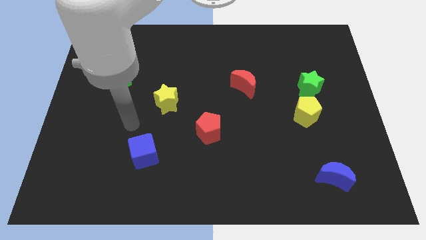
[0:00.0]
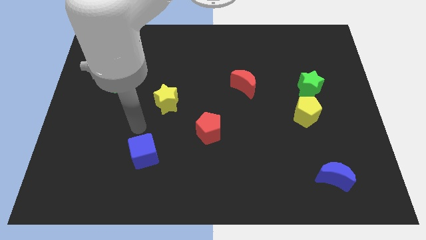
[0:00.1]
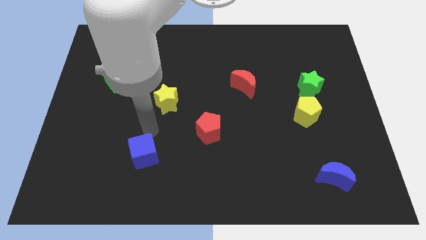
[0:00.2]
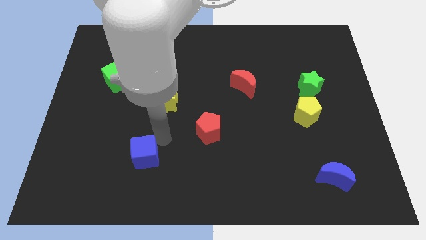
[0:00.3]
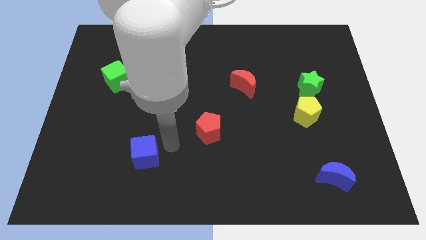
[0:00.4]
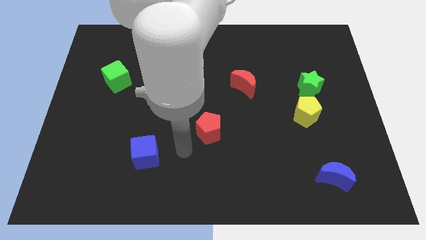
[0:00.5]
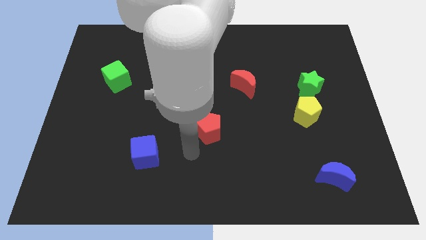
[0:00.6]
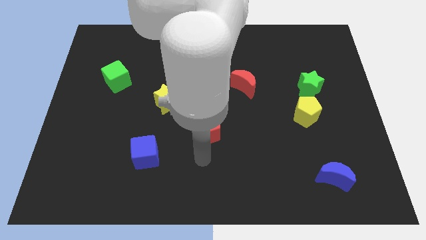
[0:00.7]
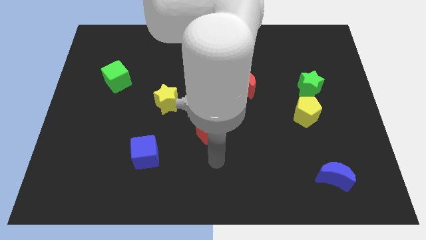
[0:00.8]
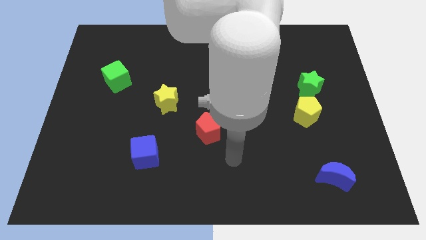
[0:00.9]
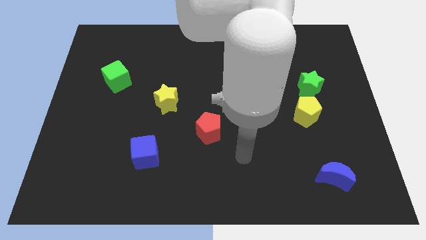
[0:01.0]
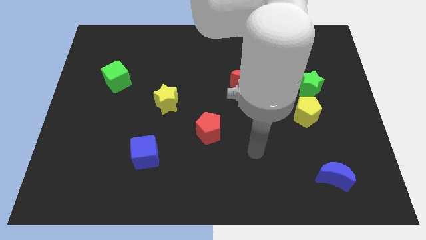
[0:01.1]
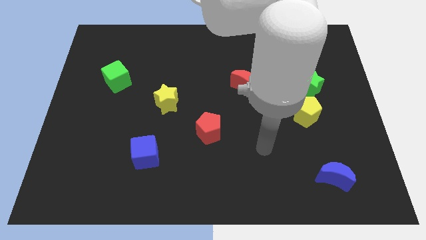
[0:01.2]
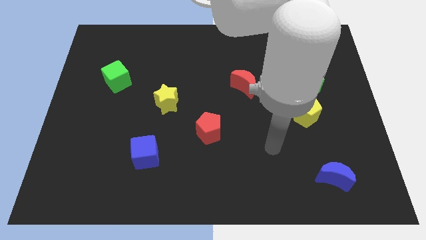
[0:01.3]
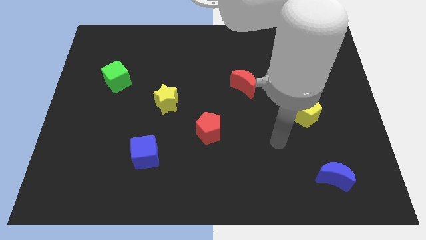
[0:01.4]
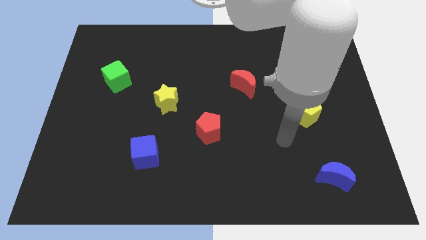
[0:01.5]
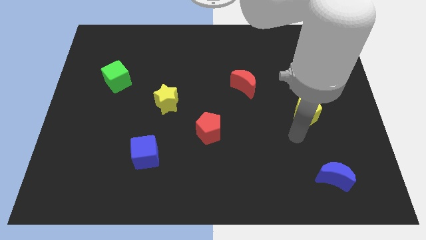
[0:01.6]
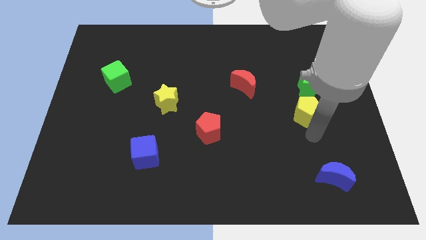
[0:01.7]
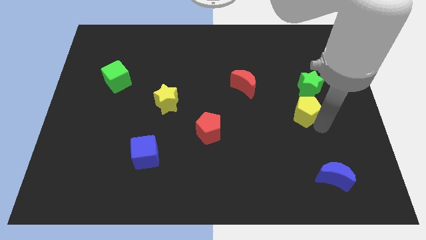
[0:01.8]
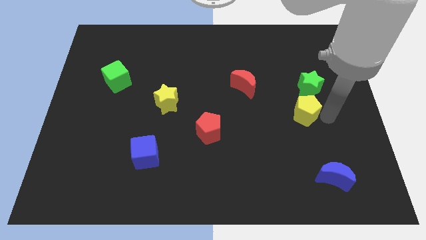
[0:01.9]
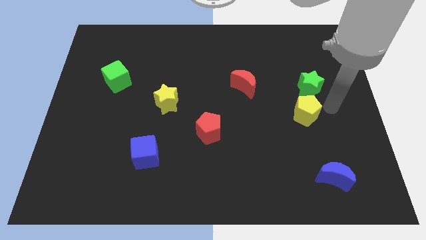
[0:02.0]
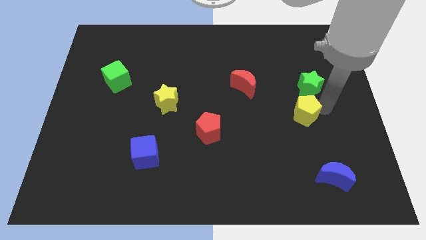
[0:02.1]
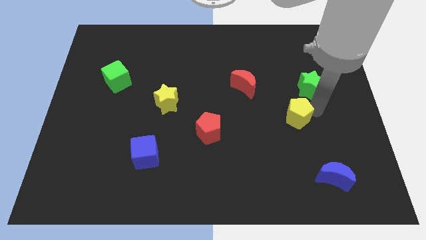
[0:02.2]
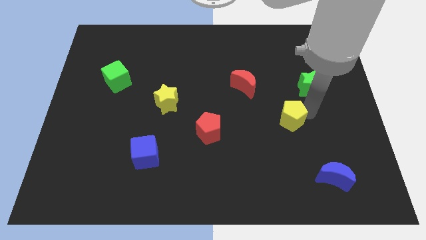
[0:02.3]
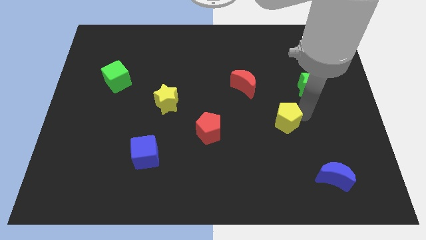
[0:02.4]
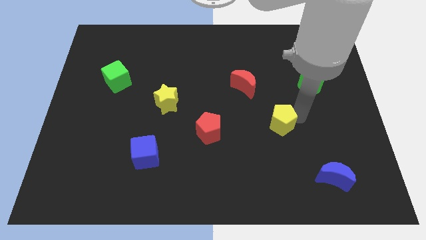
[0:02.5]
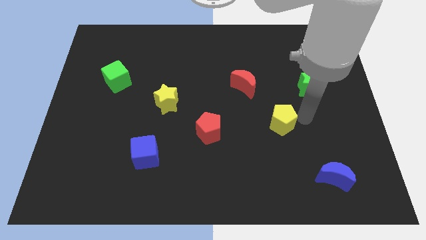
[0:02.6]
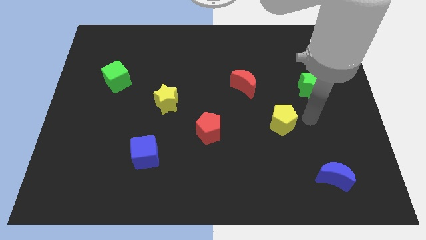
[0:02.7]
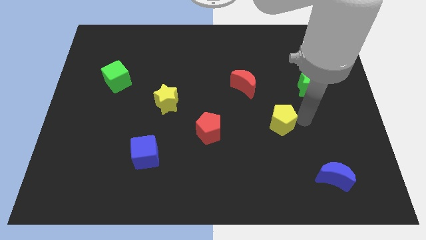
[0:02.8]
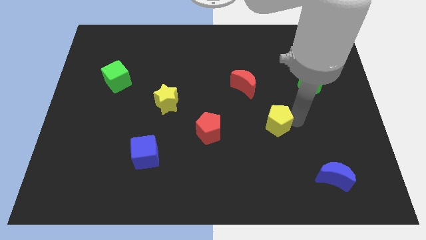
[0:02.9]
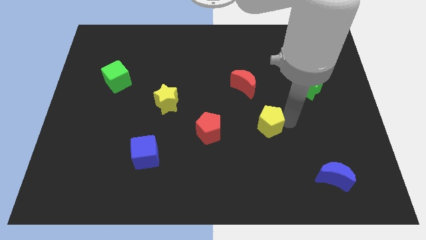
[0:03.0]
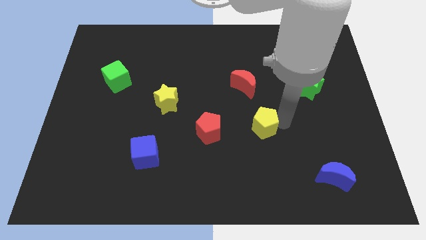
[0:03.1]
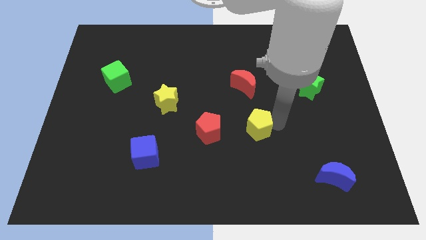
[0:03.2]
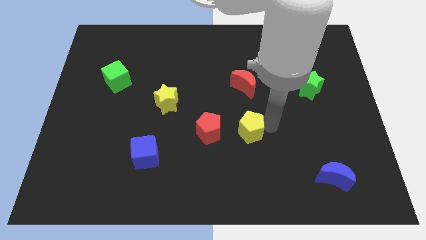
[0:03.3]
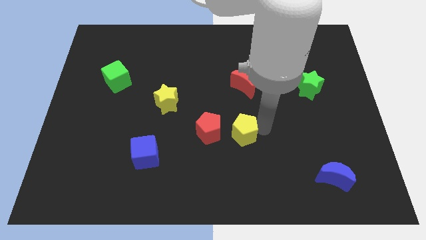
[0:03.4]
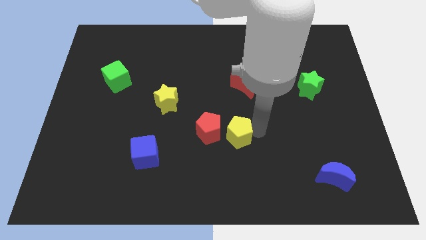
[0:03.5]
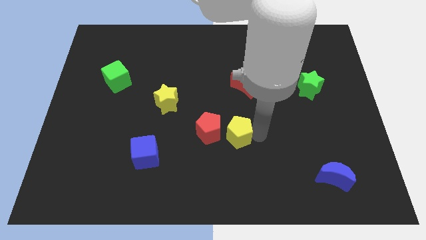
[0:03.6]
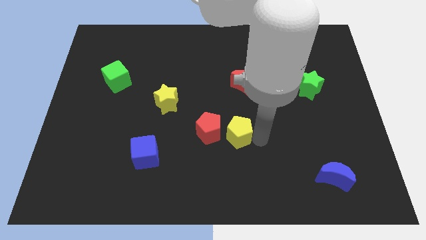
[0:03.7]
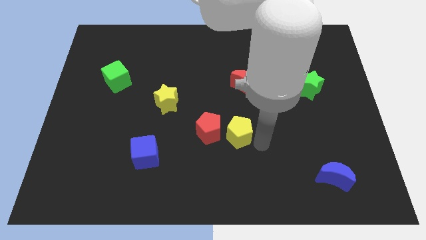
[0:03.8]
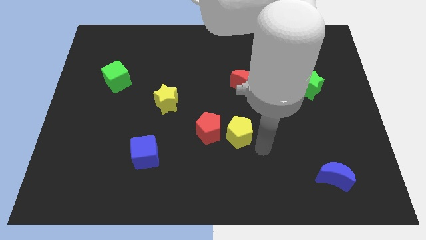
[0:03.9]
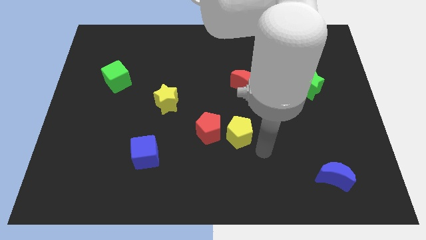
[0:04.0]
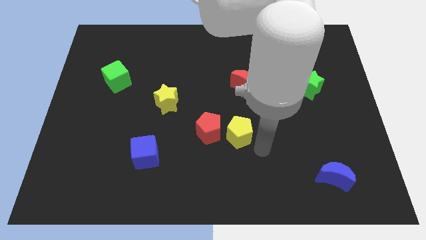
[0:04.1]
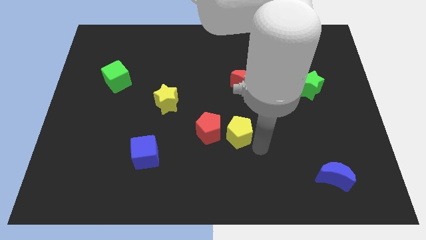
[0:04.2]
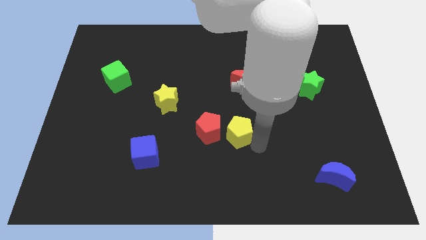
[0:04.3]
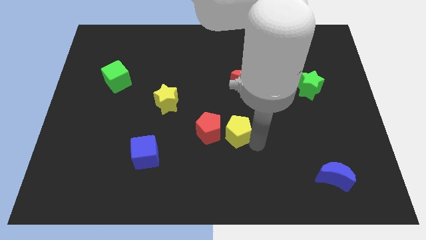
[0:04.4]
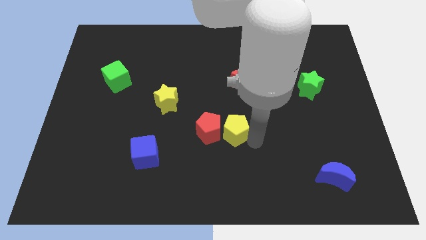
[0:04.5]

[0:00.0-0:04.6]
push the yellow pentagon towards the red pentagon

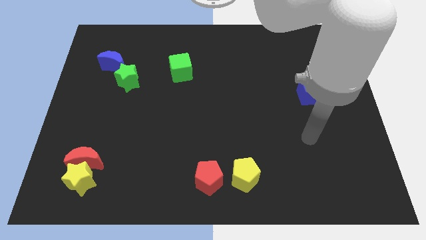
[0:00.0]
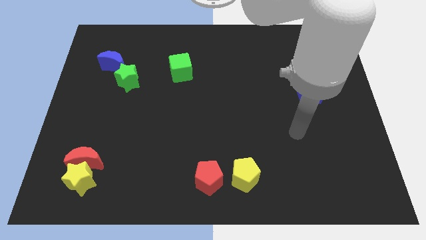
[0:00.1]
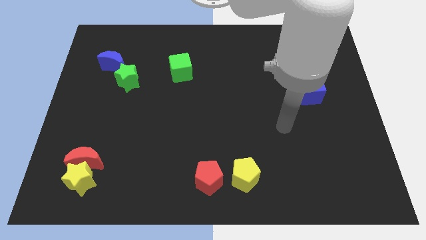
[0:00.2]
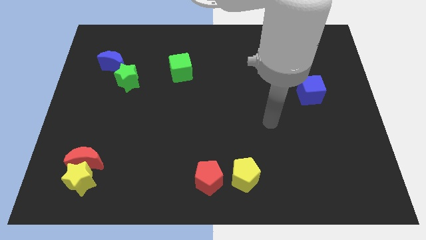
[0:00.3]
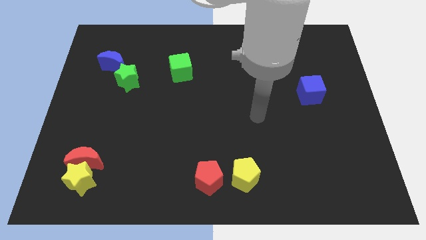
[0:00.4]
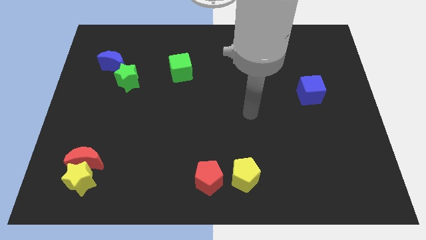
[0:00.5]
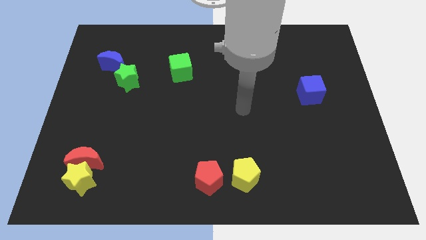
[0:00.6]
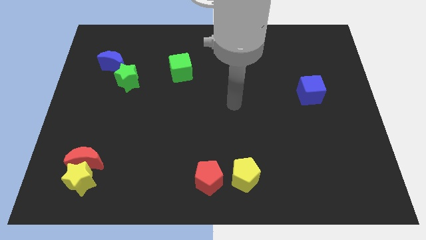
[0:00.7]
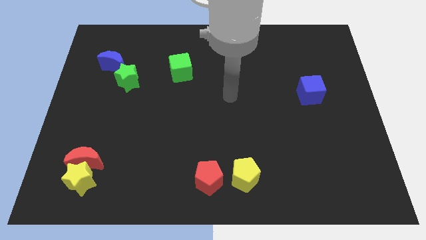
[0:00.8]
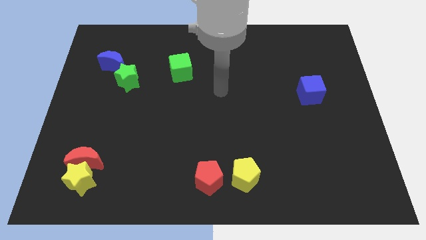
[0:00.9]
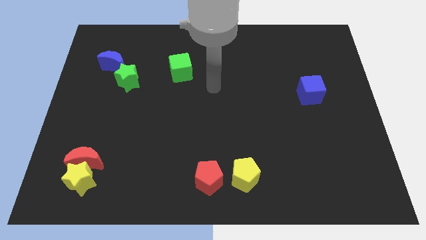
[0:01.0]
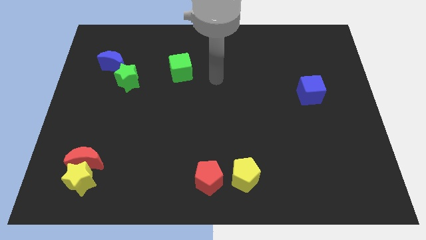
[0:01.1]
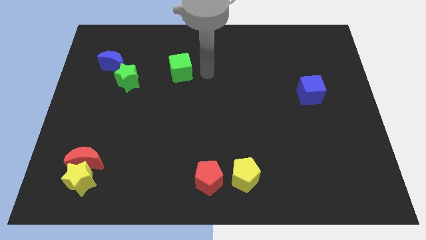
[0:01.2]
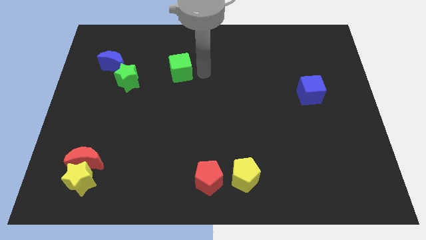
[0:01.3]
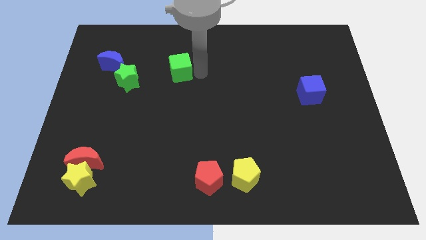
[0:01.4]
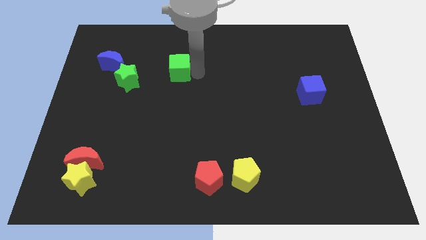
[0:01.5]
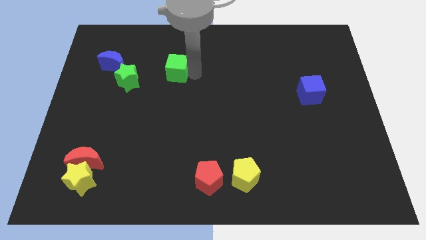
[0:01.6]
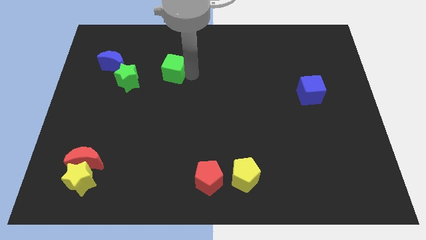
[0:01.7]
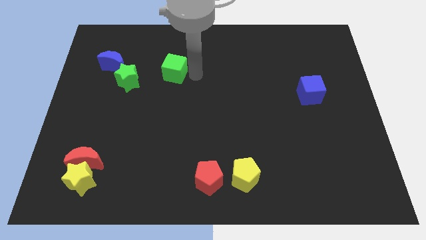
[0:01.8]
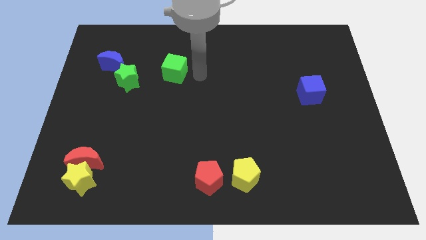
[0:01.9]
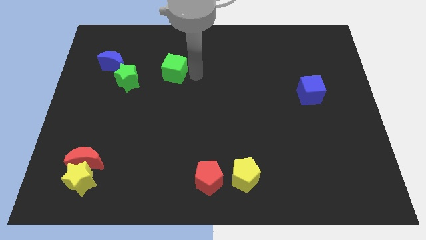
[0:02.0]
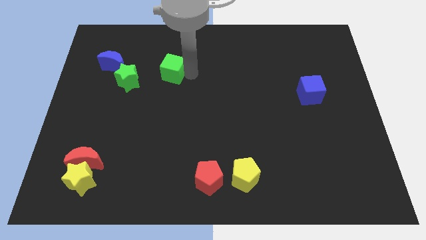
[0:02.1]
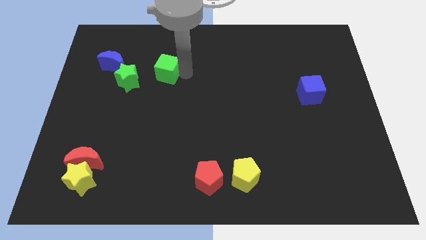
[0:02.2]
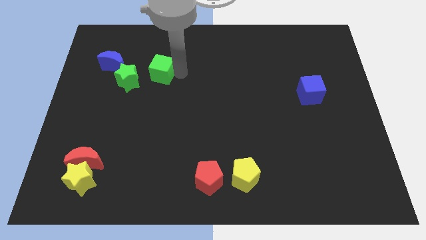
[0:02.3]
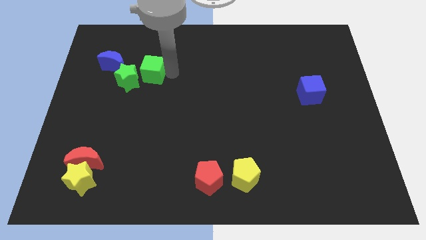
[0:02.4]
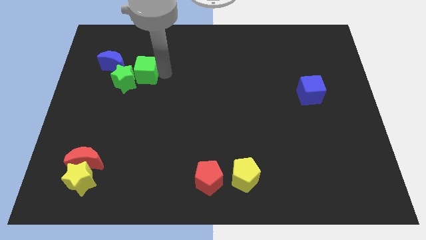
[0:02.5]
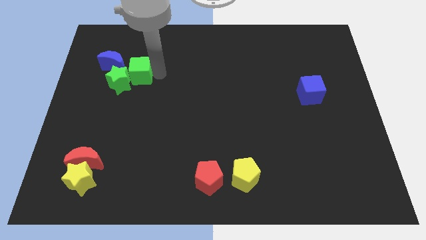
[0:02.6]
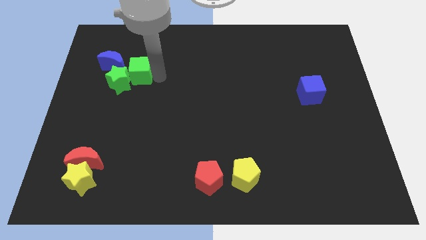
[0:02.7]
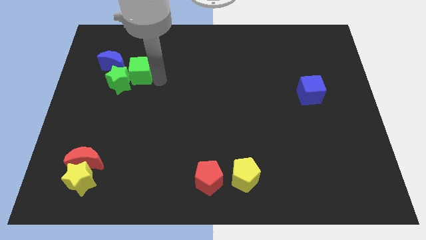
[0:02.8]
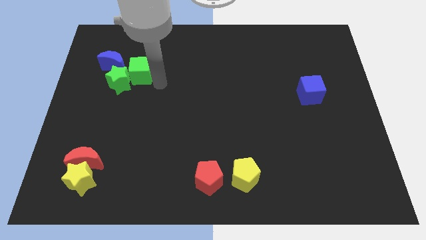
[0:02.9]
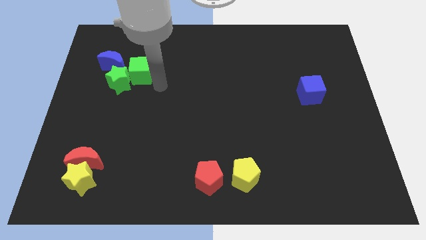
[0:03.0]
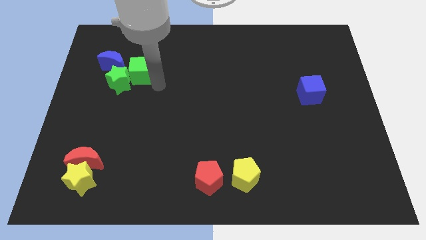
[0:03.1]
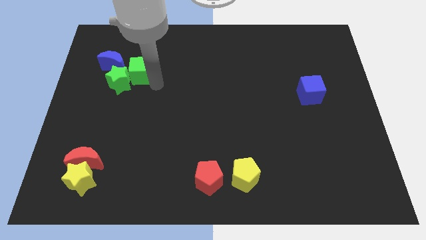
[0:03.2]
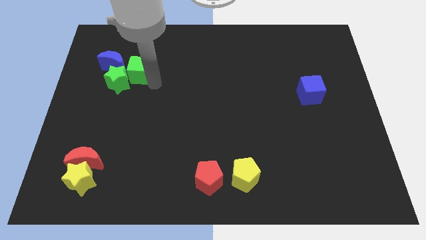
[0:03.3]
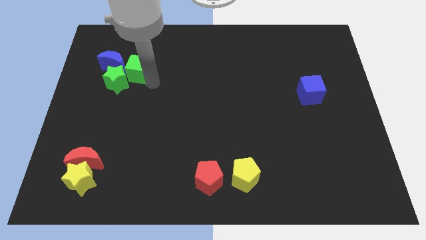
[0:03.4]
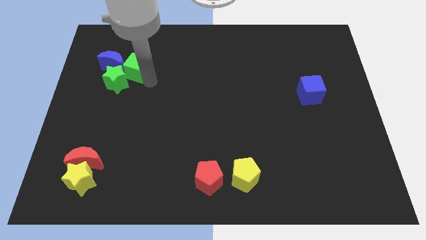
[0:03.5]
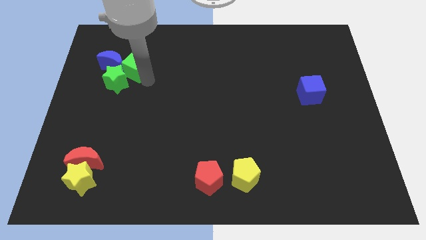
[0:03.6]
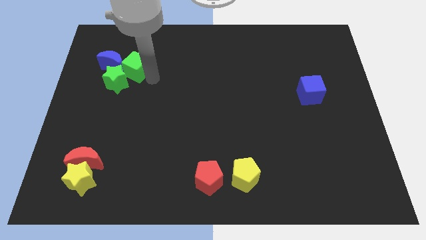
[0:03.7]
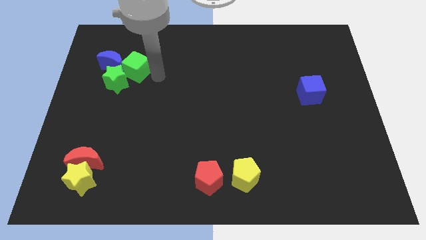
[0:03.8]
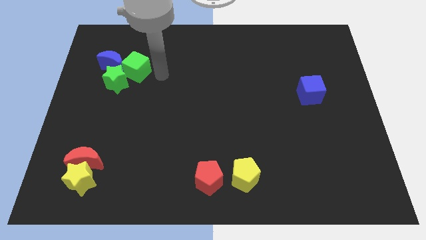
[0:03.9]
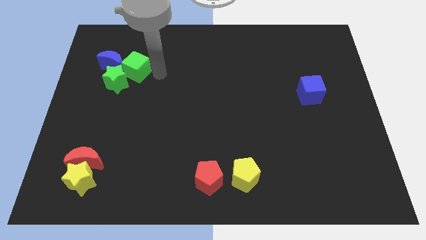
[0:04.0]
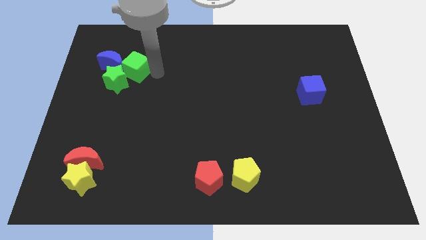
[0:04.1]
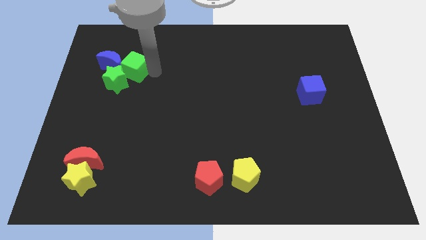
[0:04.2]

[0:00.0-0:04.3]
put the green cube to the blue moon
